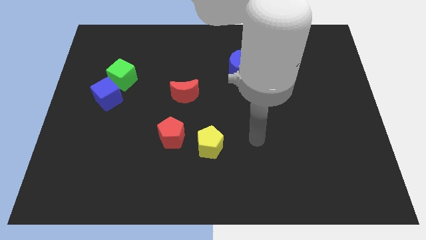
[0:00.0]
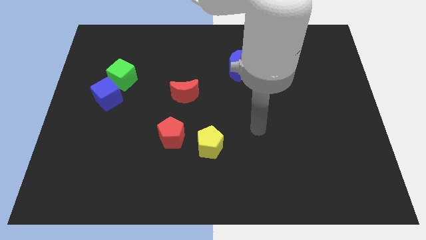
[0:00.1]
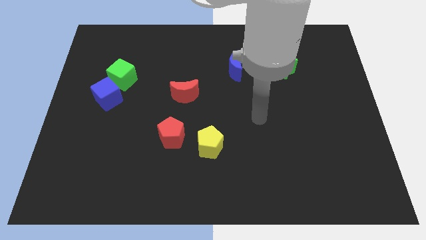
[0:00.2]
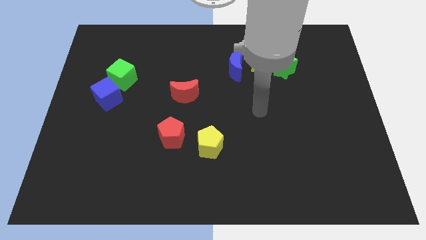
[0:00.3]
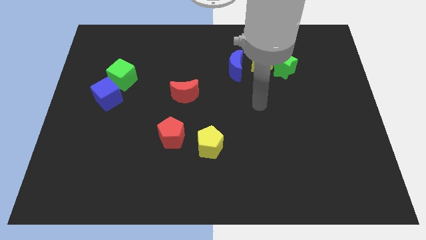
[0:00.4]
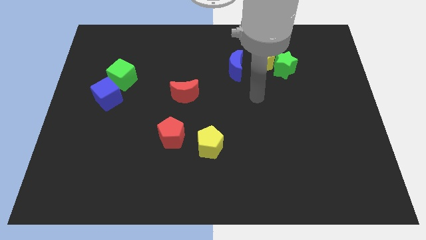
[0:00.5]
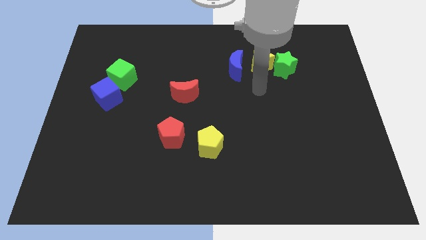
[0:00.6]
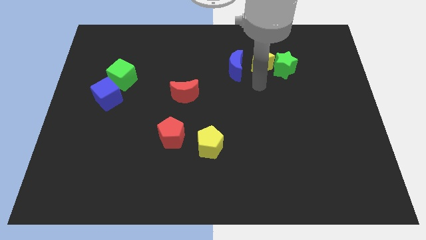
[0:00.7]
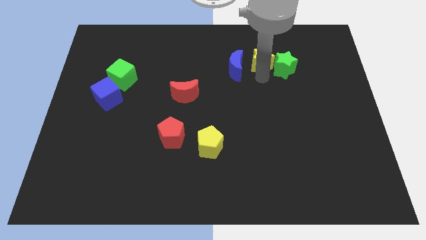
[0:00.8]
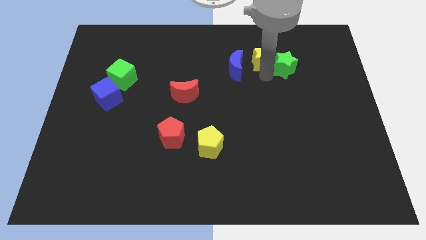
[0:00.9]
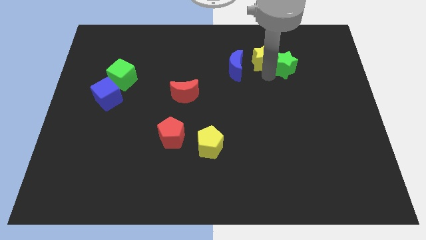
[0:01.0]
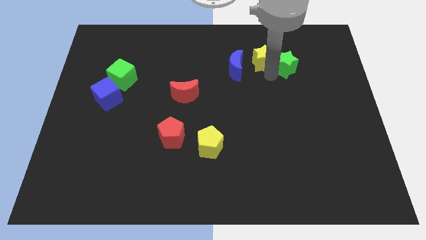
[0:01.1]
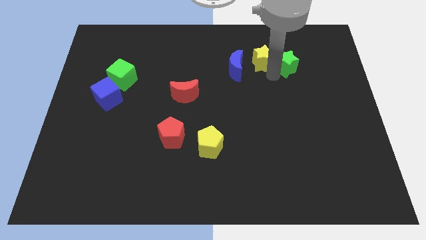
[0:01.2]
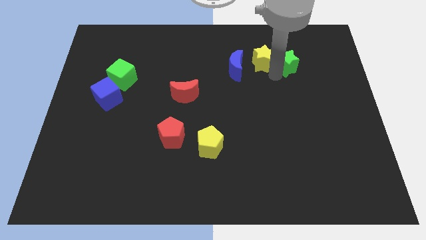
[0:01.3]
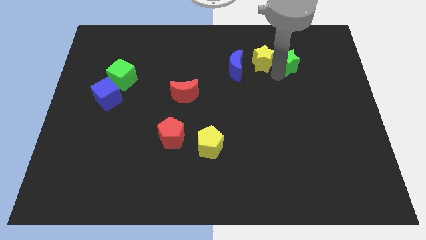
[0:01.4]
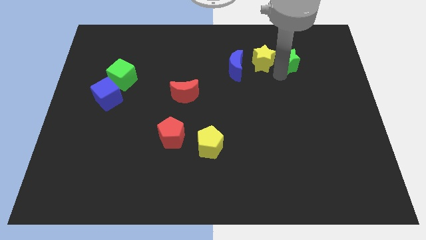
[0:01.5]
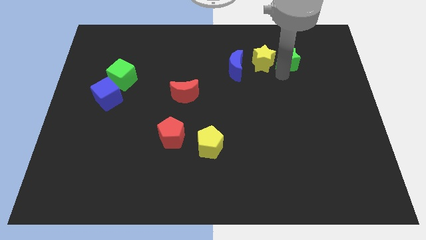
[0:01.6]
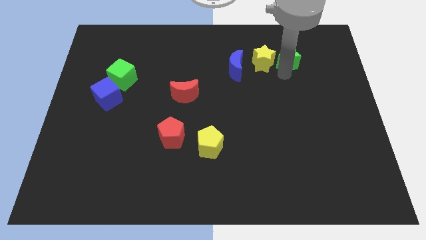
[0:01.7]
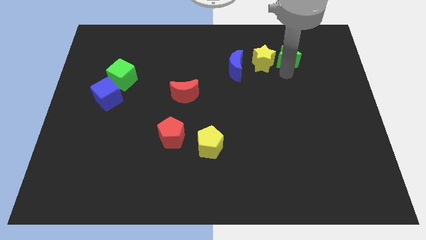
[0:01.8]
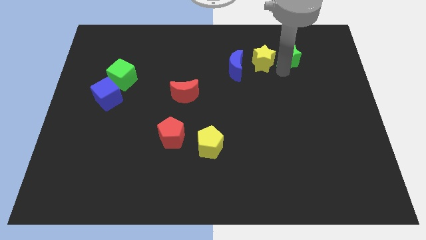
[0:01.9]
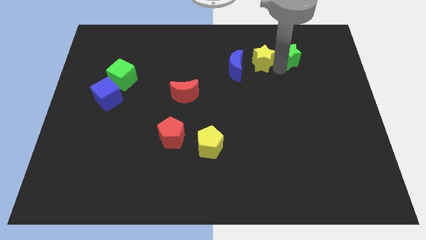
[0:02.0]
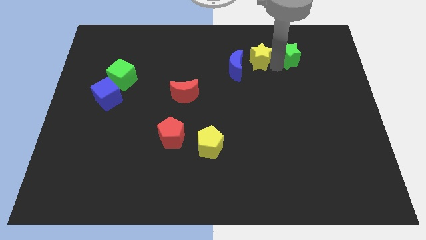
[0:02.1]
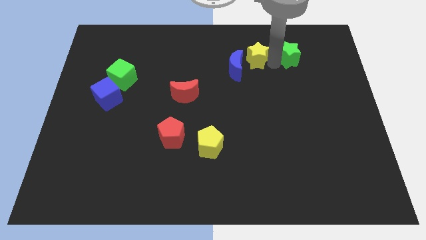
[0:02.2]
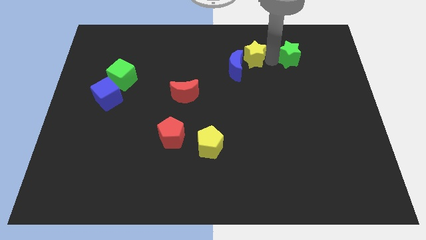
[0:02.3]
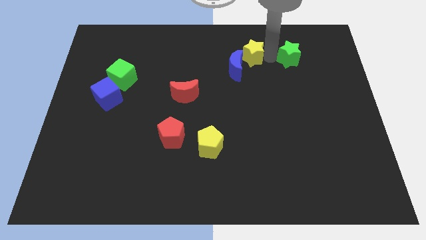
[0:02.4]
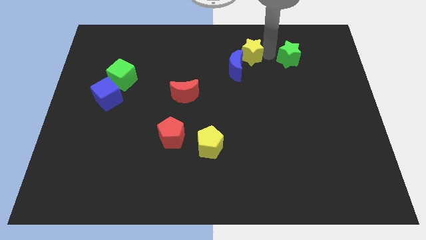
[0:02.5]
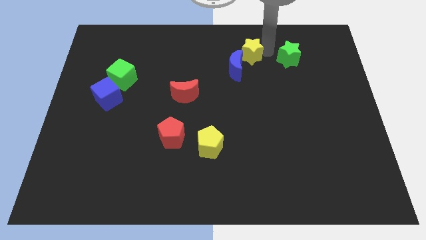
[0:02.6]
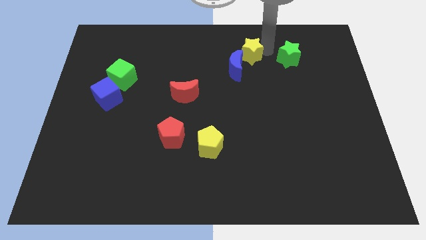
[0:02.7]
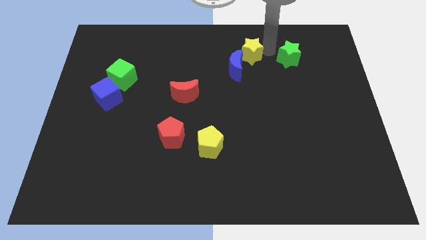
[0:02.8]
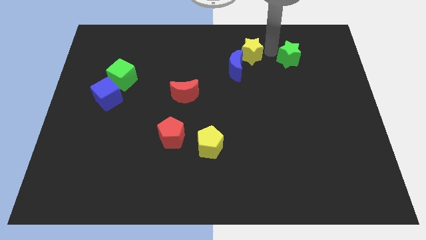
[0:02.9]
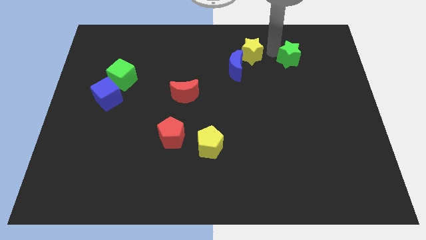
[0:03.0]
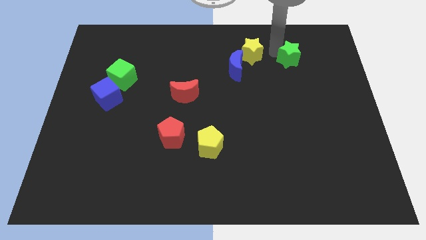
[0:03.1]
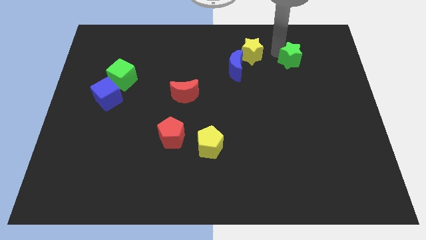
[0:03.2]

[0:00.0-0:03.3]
pull the green star apart from the yellow star

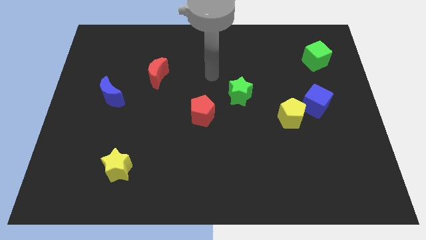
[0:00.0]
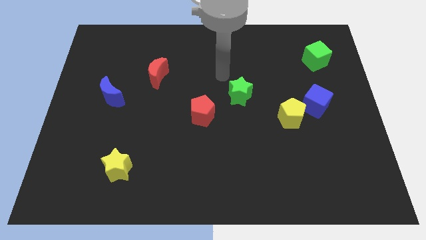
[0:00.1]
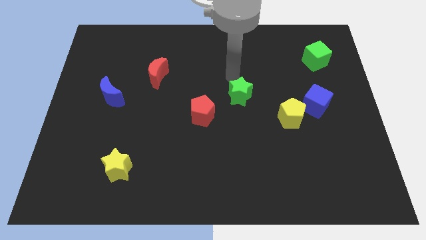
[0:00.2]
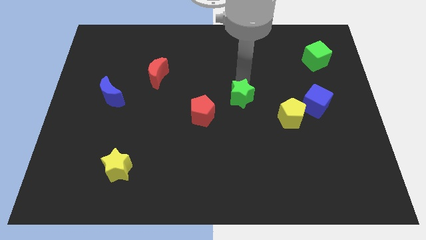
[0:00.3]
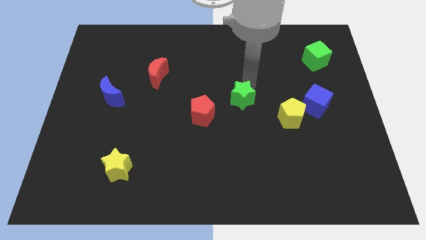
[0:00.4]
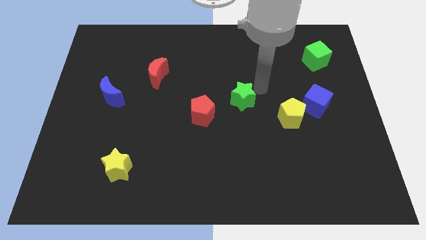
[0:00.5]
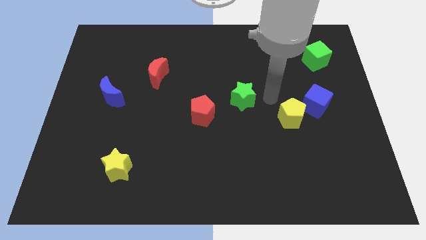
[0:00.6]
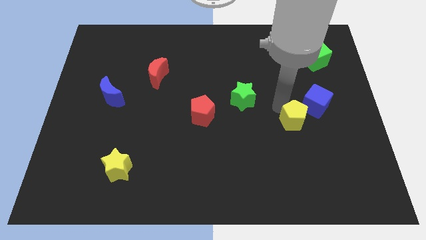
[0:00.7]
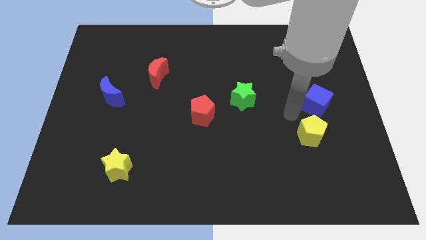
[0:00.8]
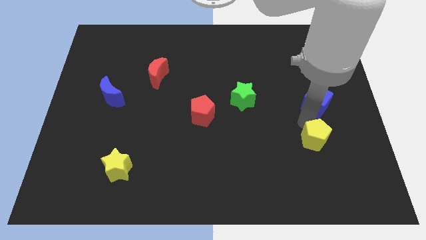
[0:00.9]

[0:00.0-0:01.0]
pull the blue cube apart from the yellow pentagon

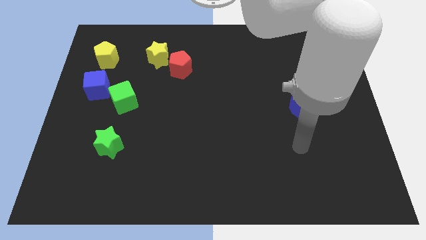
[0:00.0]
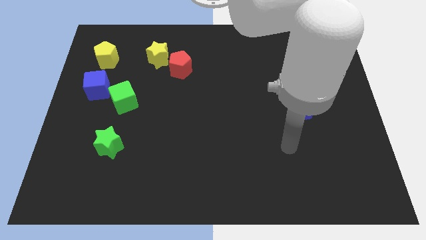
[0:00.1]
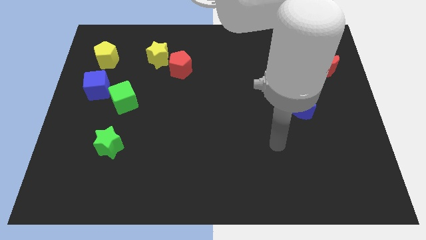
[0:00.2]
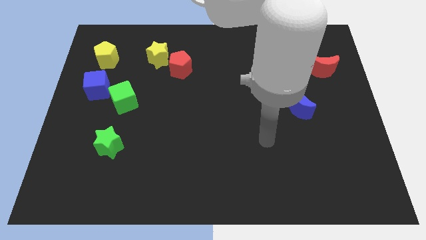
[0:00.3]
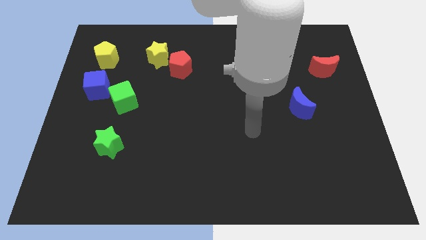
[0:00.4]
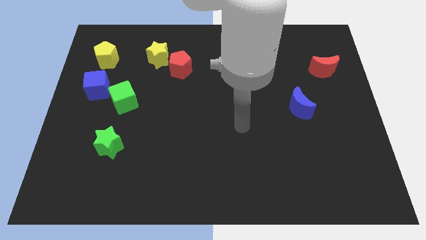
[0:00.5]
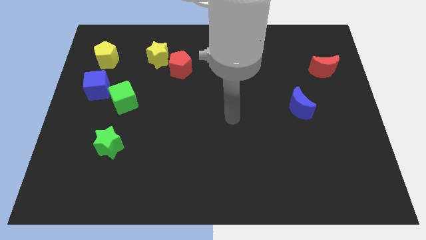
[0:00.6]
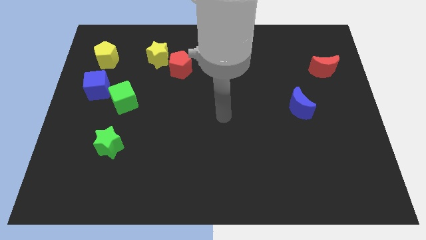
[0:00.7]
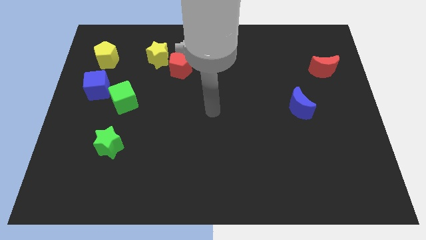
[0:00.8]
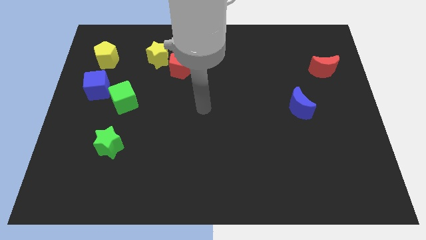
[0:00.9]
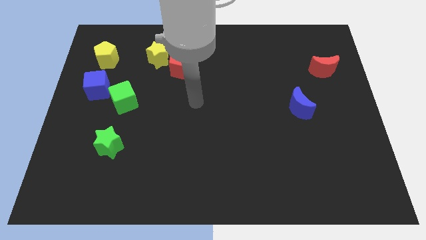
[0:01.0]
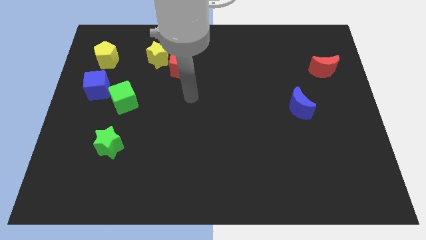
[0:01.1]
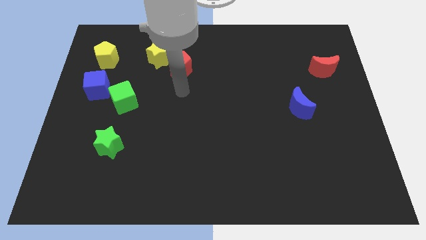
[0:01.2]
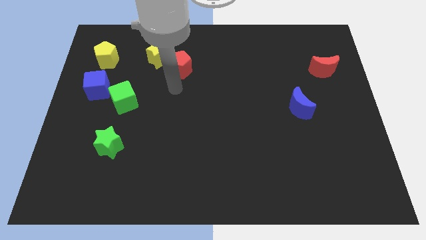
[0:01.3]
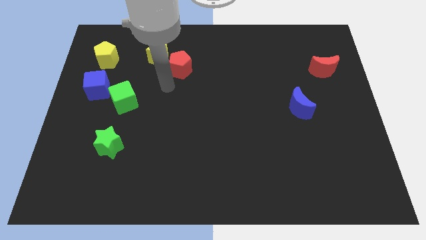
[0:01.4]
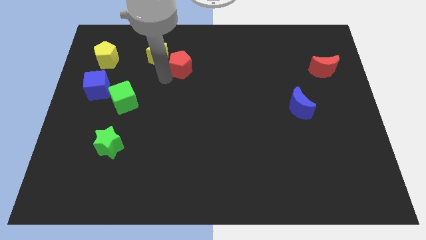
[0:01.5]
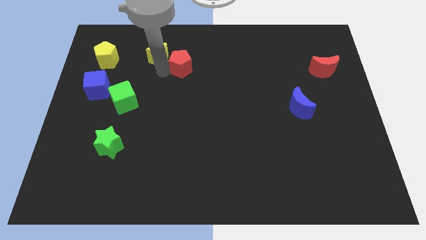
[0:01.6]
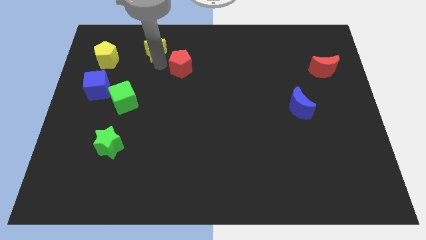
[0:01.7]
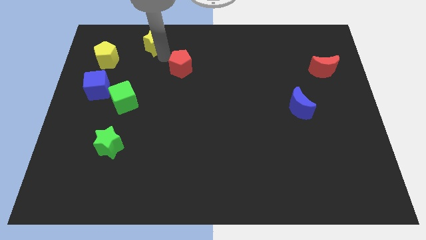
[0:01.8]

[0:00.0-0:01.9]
separate the red pentagon from the yellow star

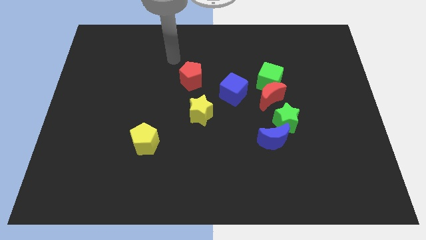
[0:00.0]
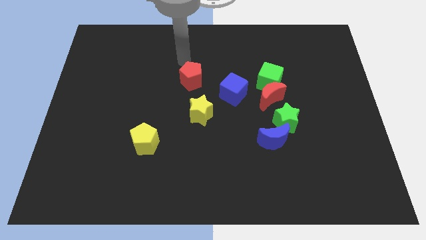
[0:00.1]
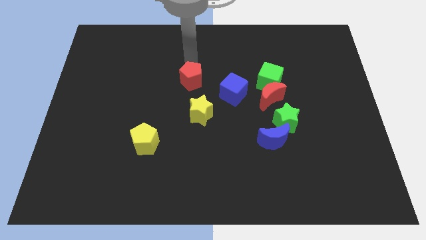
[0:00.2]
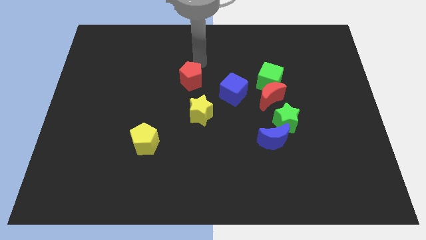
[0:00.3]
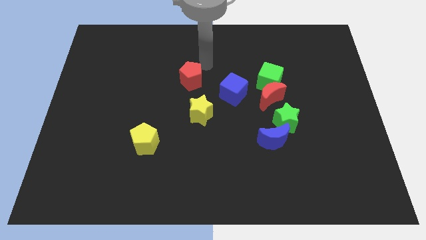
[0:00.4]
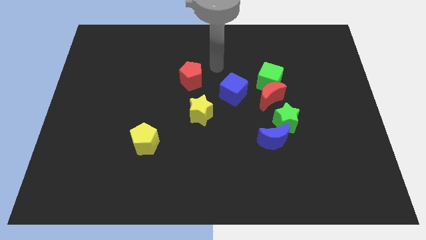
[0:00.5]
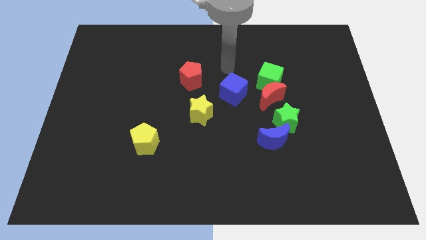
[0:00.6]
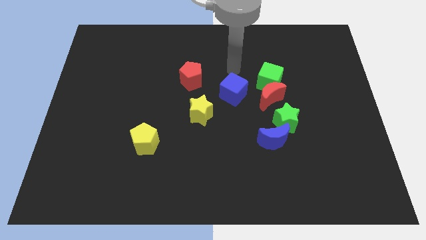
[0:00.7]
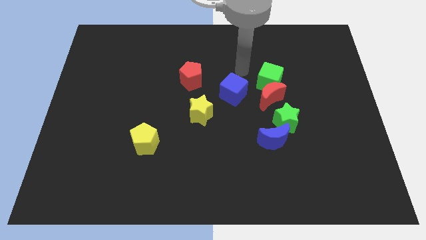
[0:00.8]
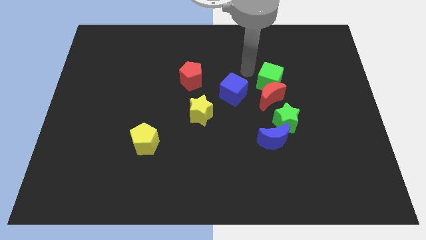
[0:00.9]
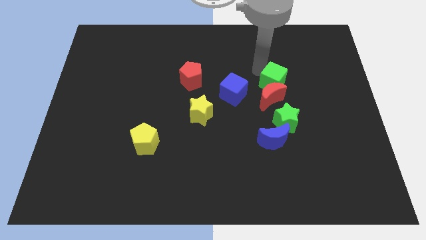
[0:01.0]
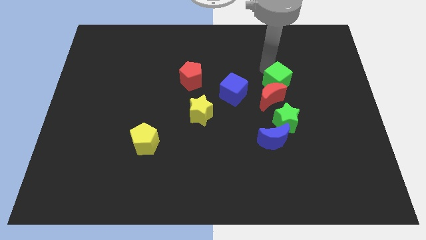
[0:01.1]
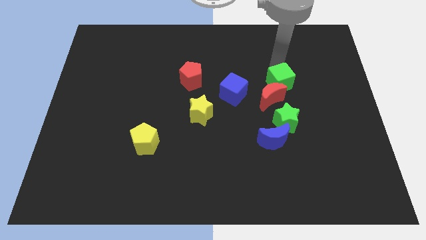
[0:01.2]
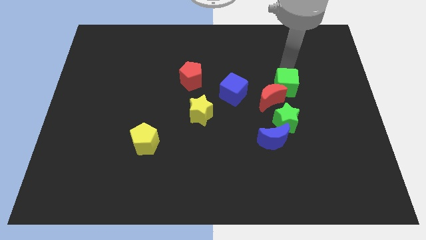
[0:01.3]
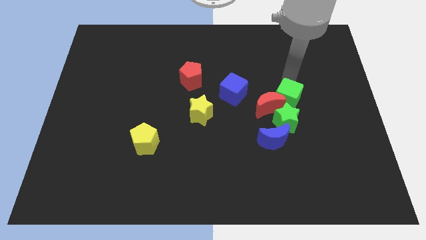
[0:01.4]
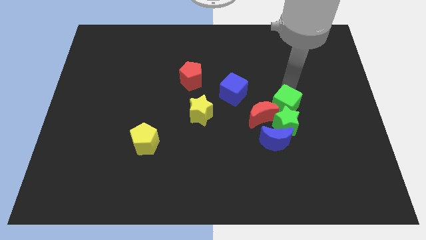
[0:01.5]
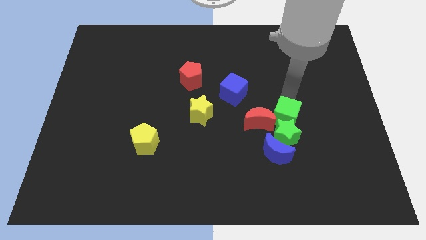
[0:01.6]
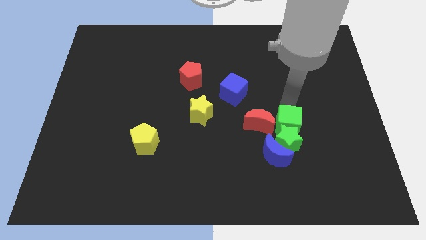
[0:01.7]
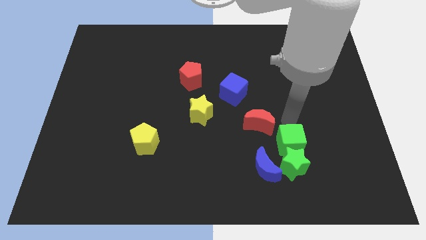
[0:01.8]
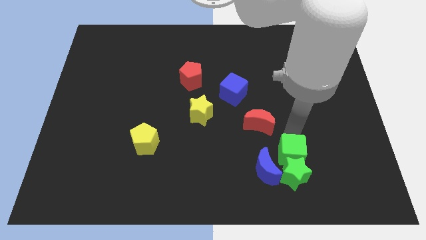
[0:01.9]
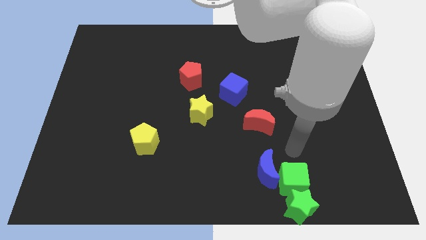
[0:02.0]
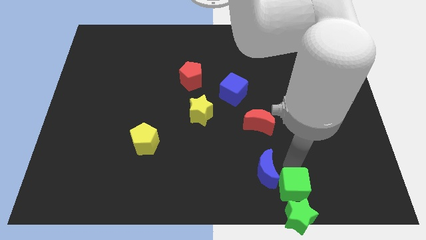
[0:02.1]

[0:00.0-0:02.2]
pull the blue moon apart from the green star

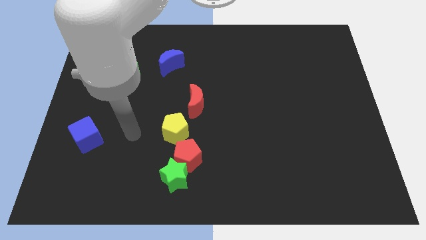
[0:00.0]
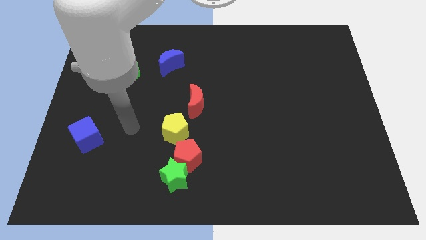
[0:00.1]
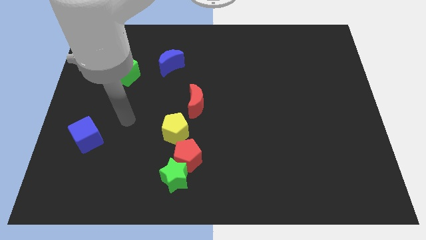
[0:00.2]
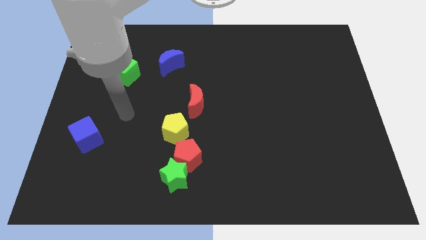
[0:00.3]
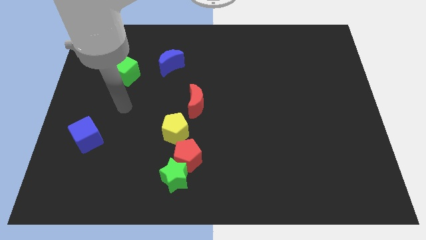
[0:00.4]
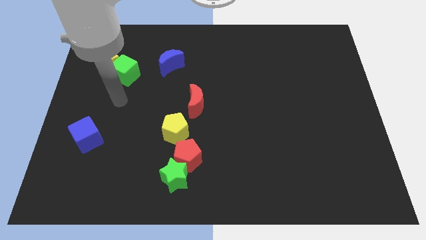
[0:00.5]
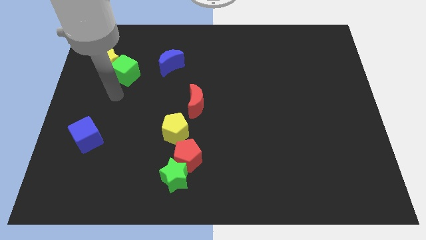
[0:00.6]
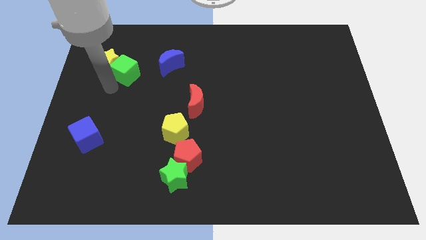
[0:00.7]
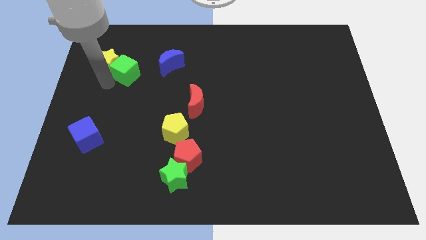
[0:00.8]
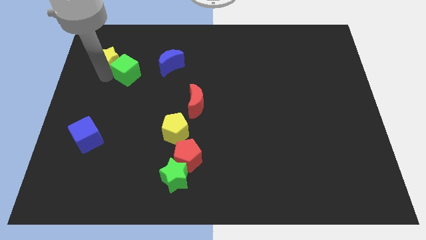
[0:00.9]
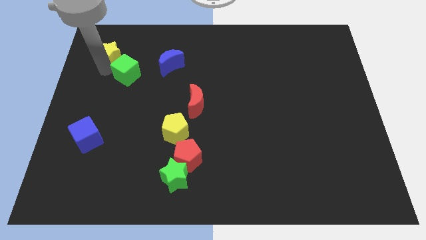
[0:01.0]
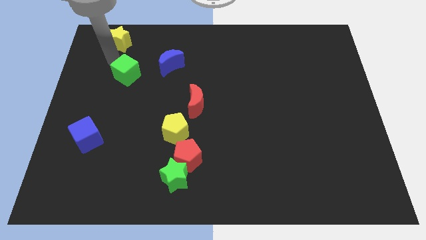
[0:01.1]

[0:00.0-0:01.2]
pull the green cube apart from the yellow star
